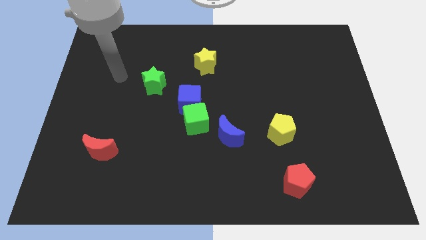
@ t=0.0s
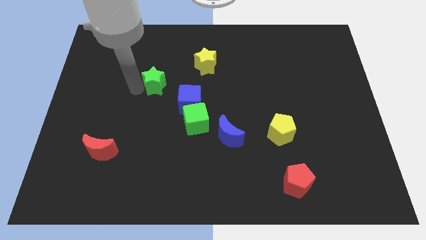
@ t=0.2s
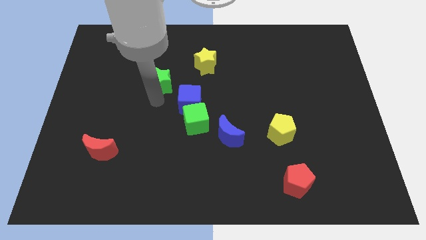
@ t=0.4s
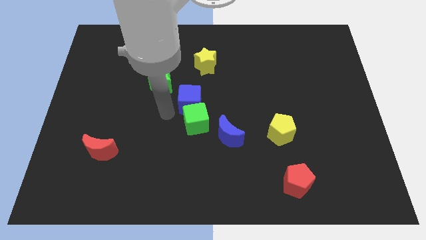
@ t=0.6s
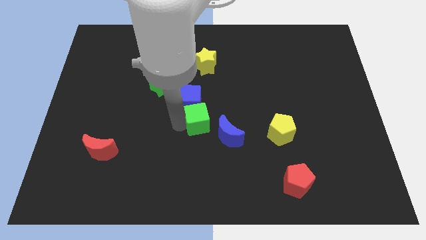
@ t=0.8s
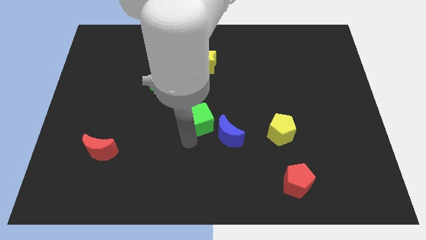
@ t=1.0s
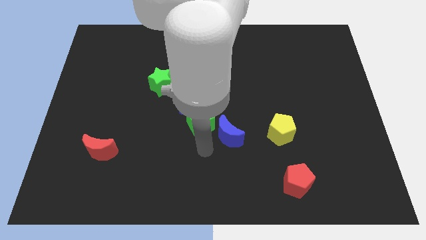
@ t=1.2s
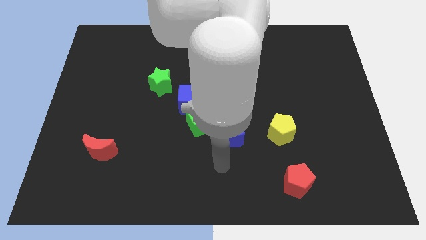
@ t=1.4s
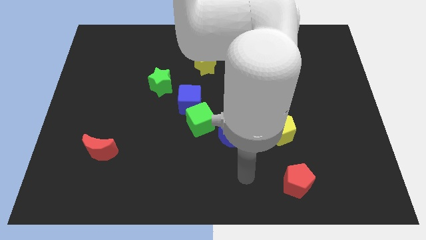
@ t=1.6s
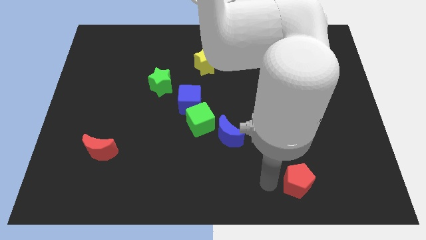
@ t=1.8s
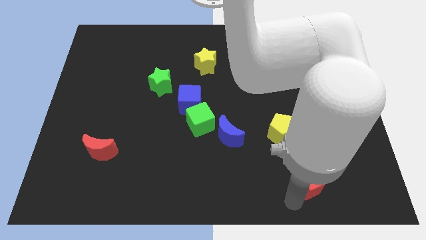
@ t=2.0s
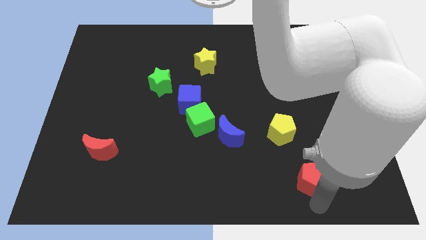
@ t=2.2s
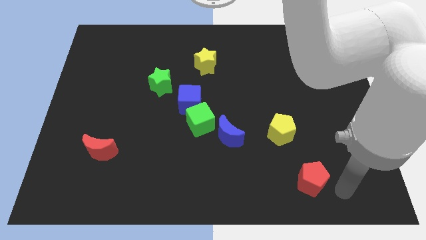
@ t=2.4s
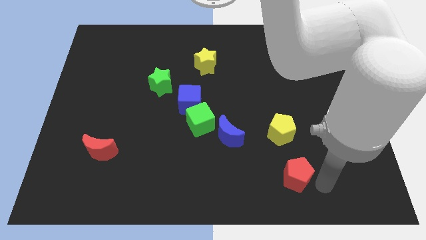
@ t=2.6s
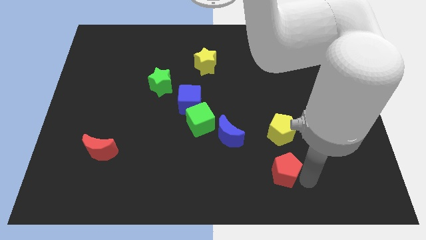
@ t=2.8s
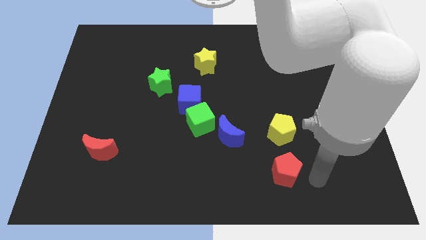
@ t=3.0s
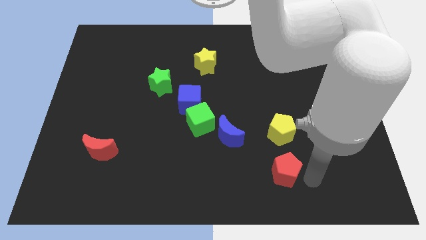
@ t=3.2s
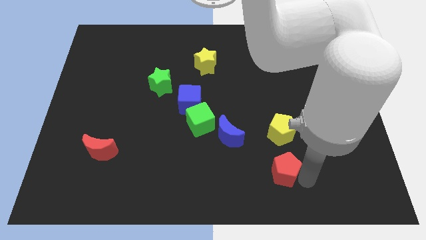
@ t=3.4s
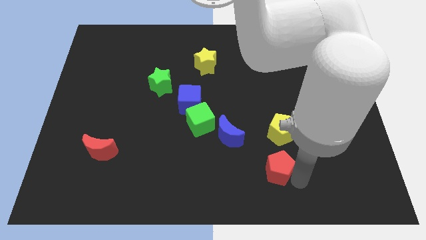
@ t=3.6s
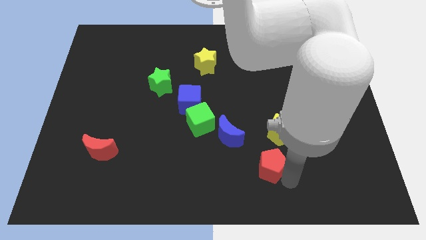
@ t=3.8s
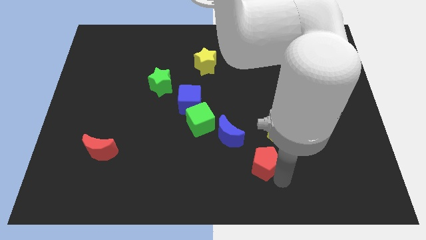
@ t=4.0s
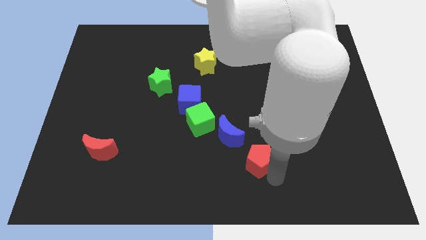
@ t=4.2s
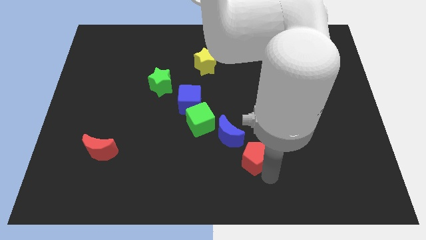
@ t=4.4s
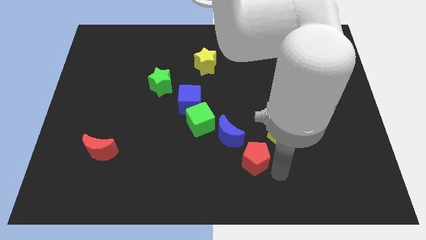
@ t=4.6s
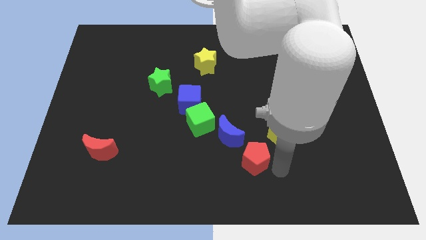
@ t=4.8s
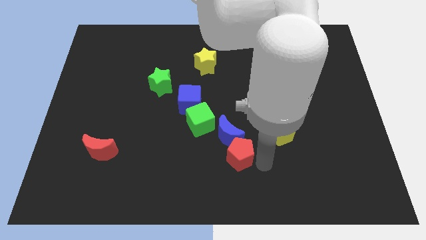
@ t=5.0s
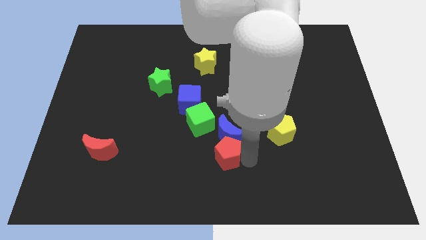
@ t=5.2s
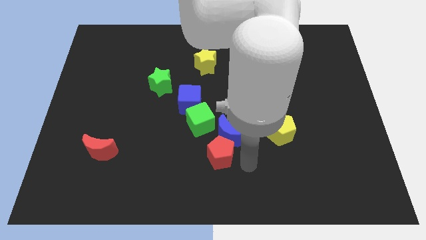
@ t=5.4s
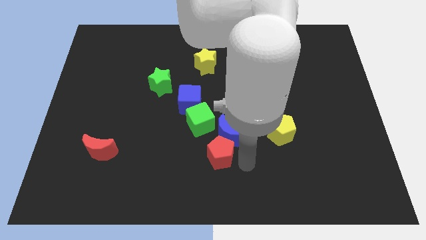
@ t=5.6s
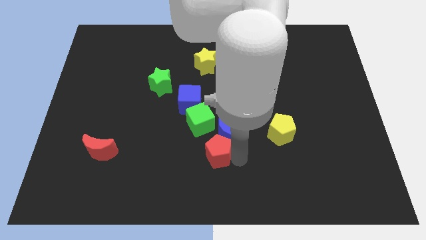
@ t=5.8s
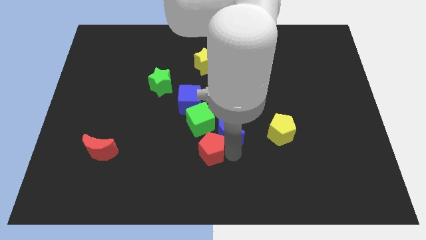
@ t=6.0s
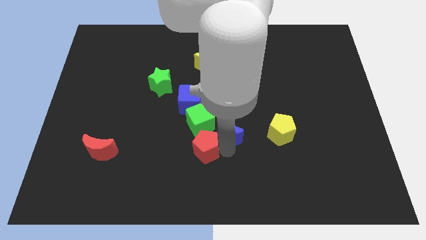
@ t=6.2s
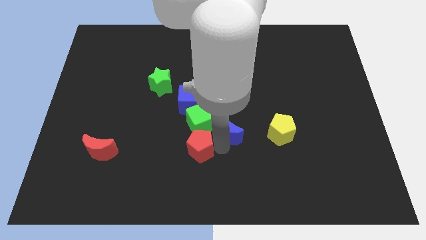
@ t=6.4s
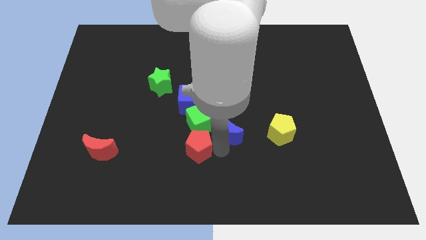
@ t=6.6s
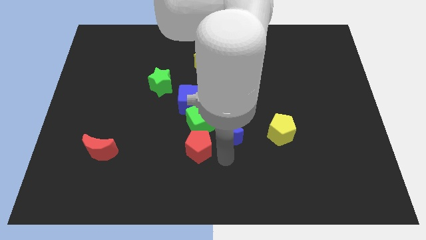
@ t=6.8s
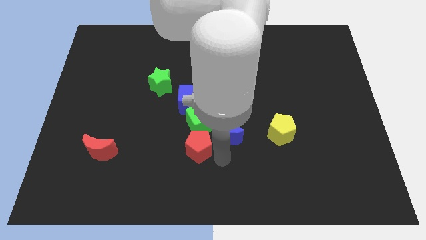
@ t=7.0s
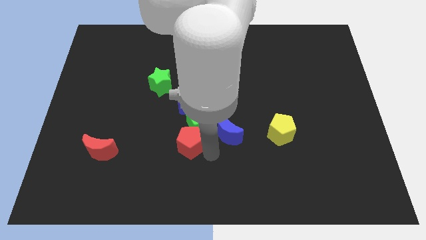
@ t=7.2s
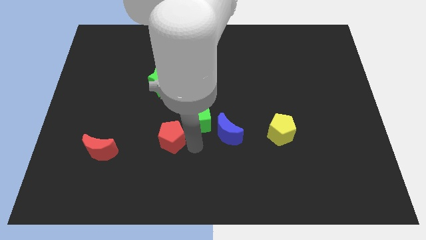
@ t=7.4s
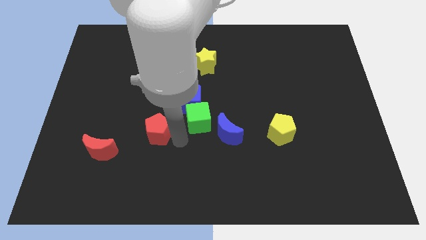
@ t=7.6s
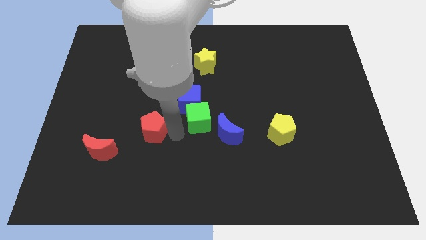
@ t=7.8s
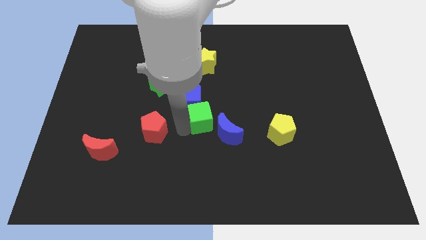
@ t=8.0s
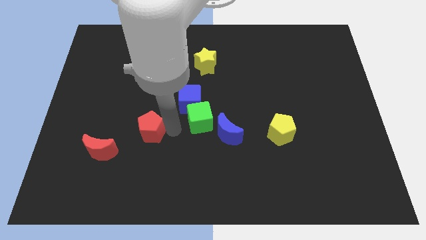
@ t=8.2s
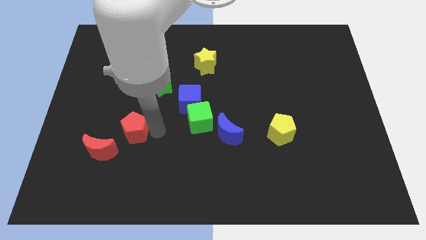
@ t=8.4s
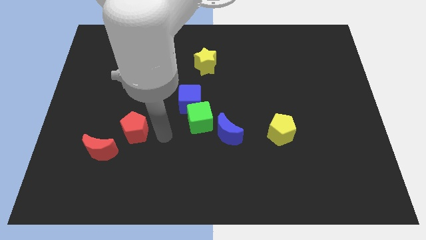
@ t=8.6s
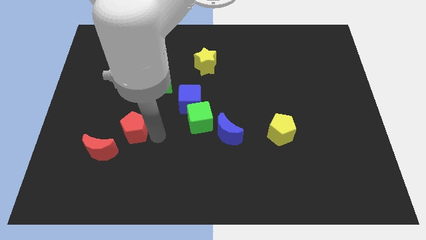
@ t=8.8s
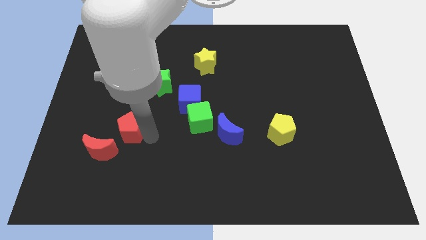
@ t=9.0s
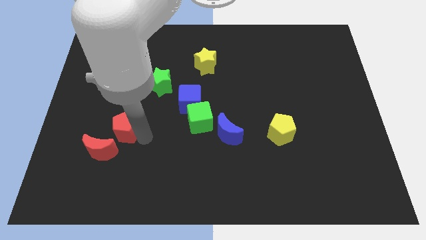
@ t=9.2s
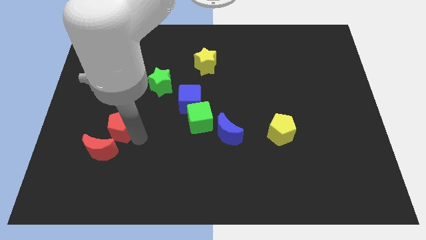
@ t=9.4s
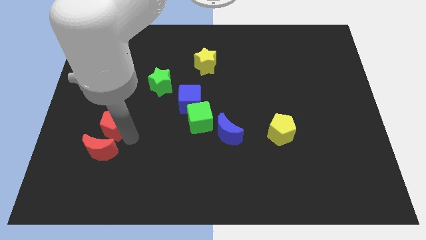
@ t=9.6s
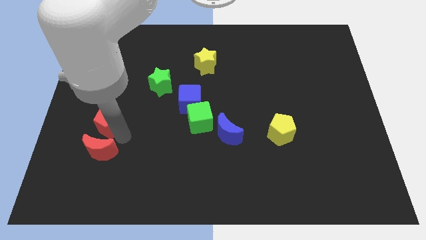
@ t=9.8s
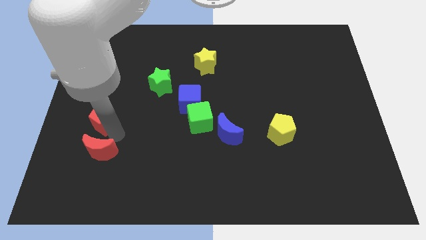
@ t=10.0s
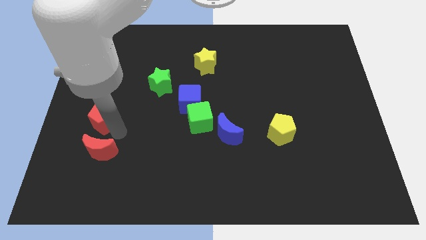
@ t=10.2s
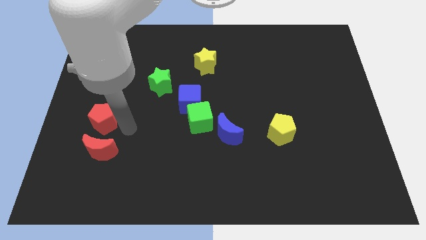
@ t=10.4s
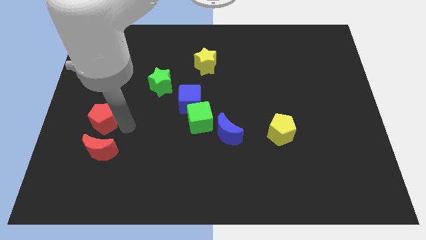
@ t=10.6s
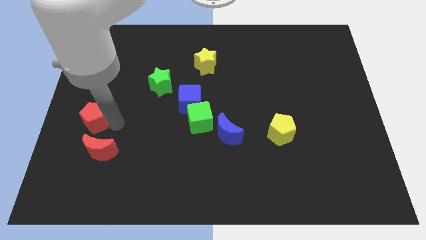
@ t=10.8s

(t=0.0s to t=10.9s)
push the red pentagon to the center left

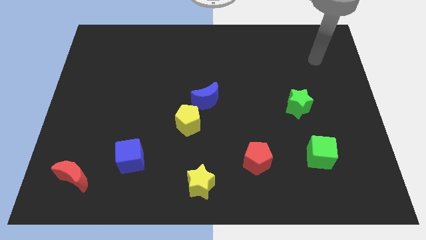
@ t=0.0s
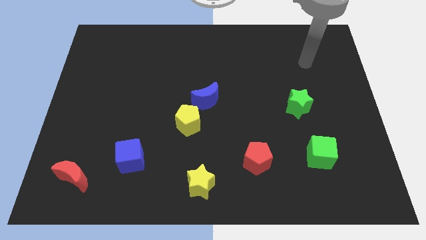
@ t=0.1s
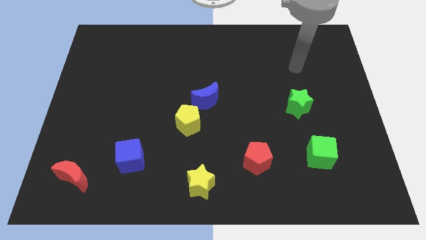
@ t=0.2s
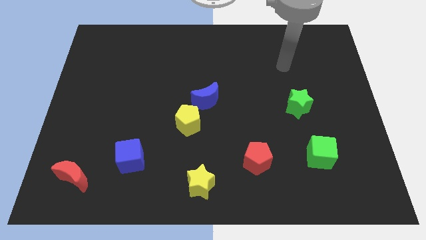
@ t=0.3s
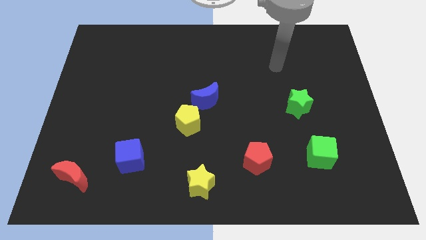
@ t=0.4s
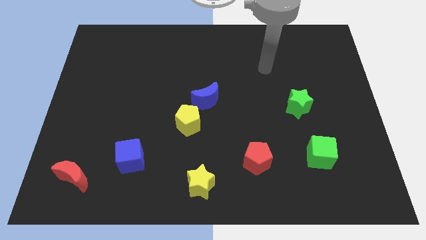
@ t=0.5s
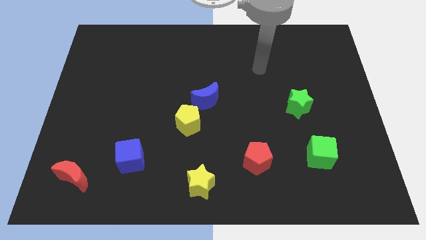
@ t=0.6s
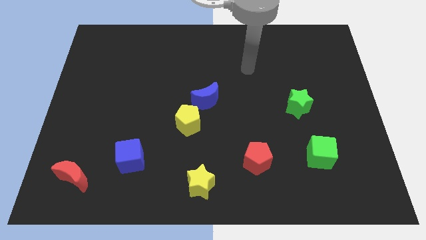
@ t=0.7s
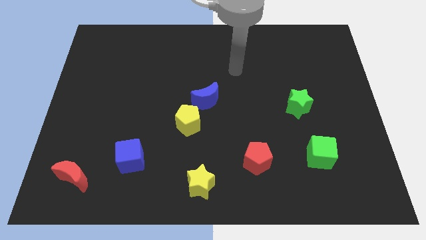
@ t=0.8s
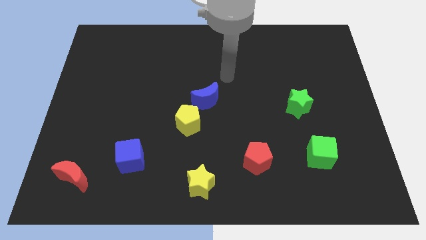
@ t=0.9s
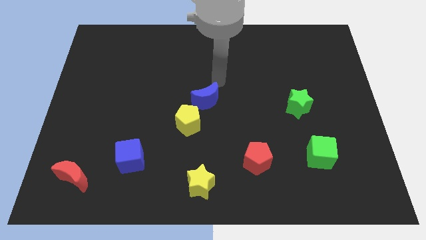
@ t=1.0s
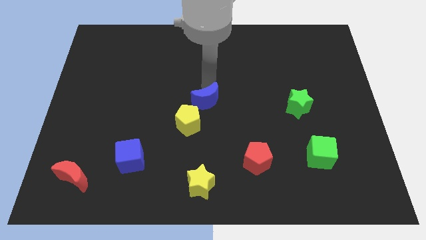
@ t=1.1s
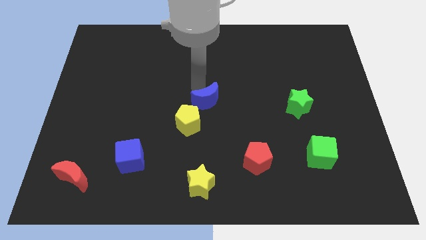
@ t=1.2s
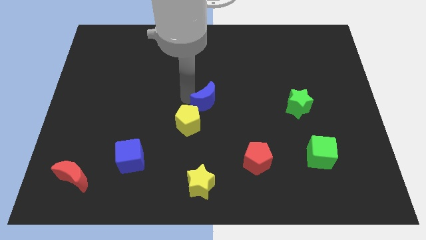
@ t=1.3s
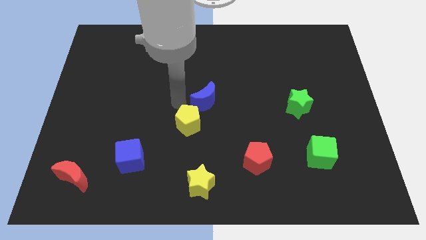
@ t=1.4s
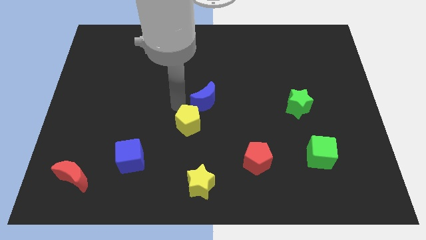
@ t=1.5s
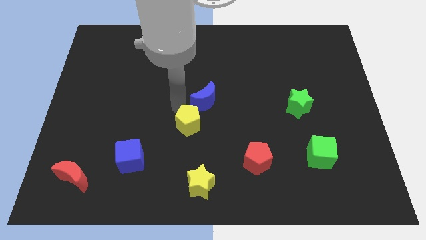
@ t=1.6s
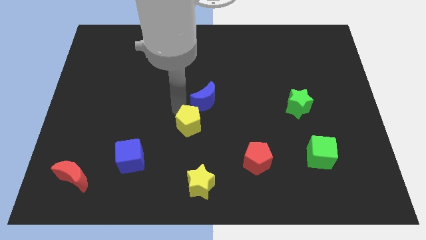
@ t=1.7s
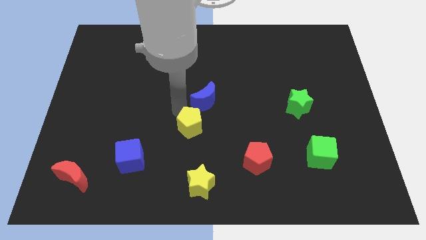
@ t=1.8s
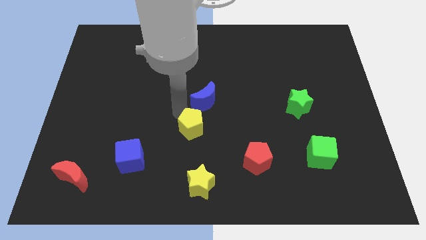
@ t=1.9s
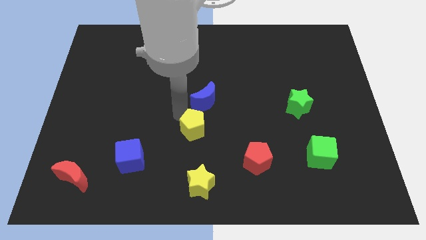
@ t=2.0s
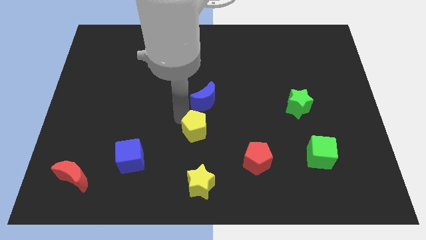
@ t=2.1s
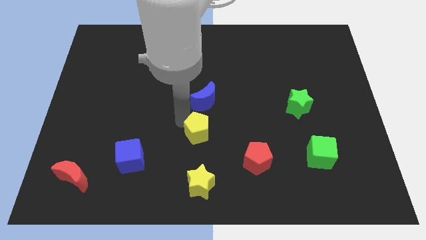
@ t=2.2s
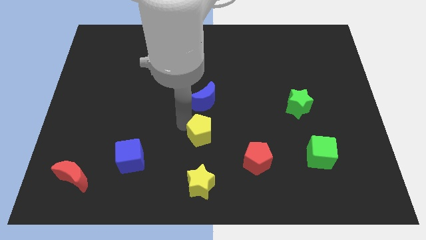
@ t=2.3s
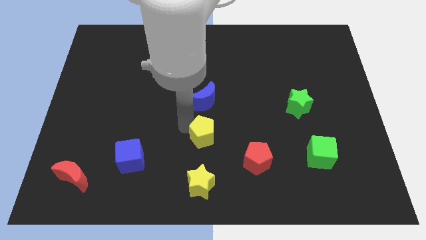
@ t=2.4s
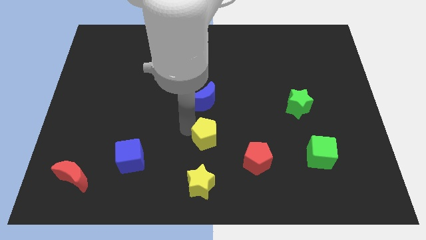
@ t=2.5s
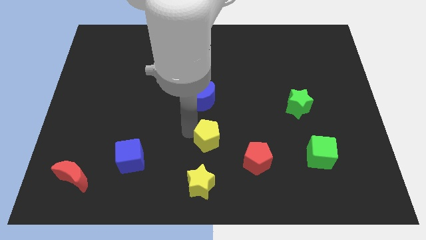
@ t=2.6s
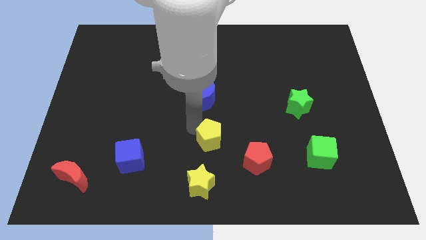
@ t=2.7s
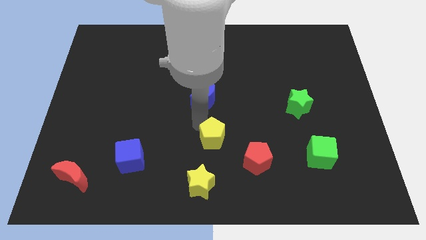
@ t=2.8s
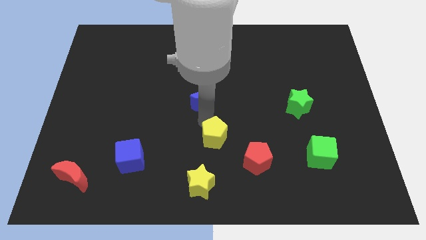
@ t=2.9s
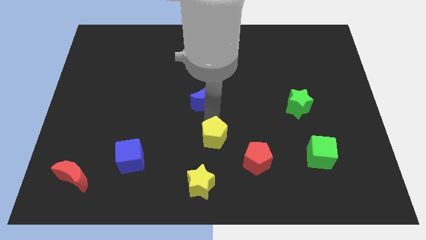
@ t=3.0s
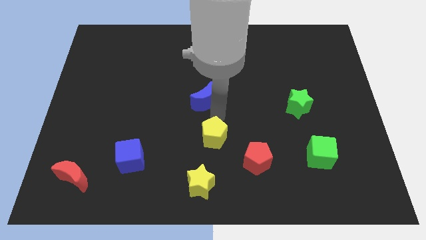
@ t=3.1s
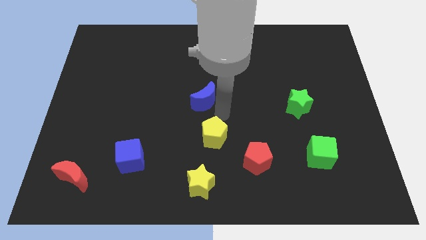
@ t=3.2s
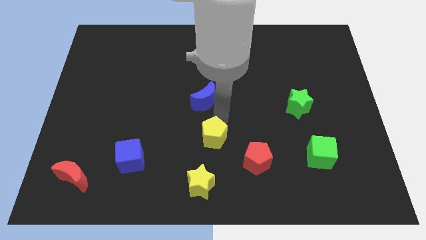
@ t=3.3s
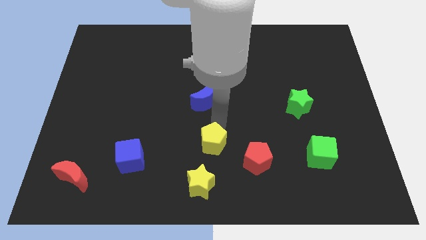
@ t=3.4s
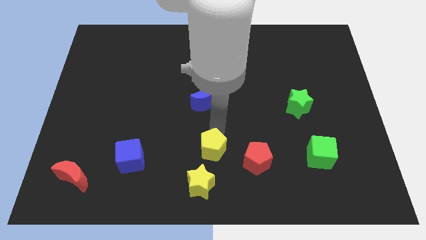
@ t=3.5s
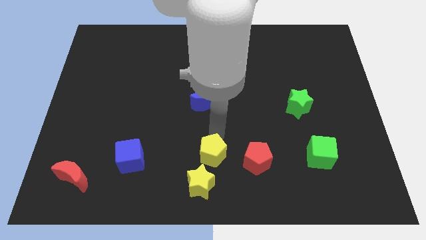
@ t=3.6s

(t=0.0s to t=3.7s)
move the yellow pentagon to the bottom side
